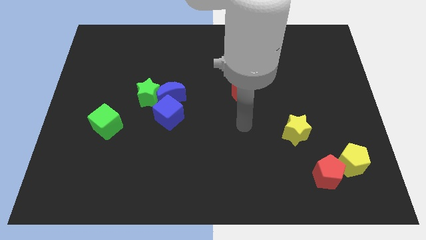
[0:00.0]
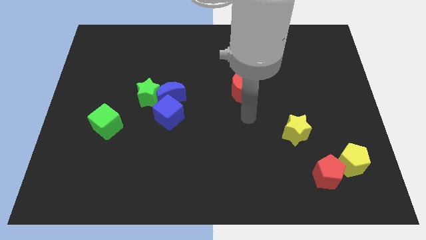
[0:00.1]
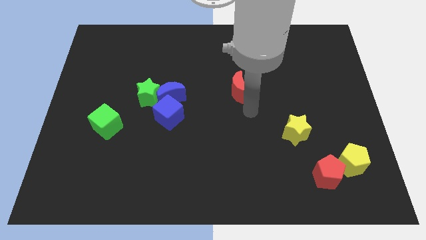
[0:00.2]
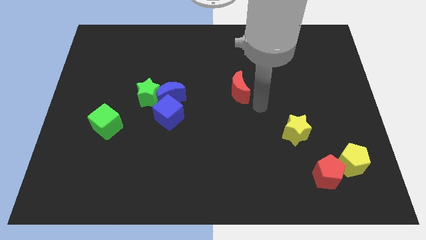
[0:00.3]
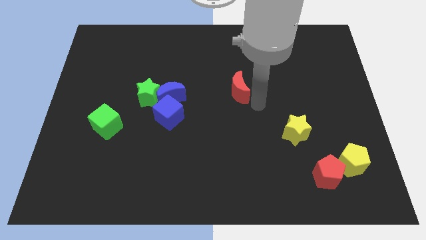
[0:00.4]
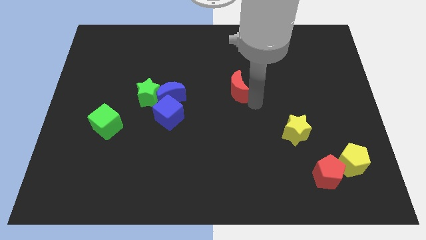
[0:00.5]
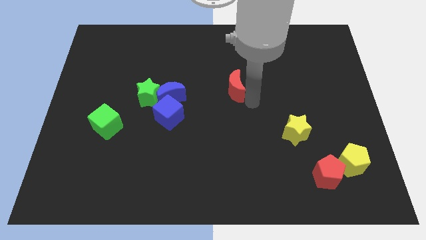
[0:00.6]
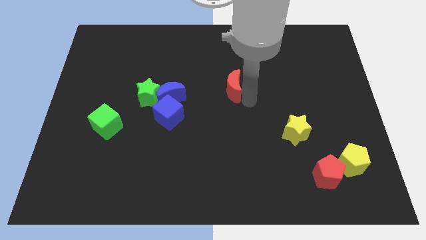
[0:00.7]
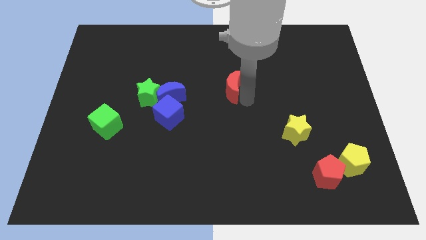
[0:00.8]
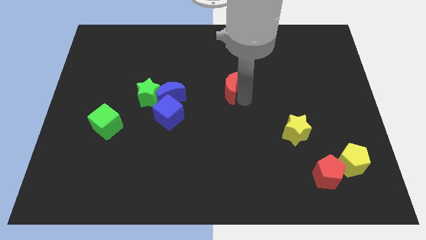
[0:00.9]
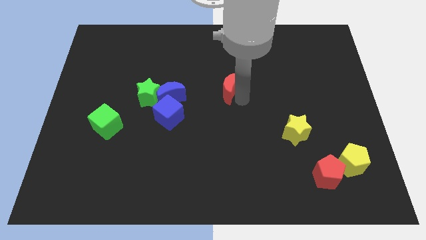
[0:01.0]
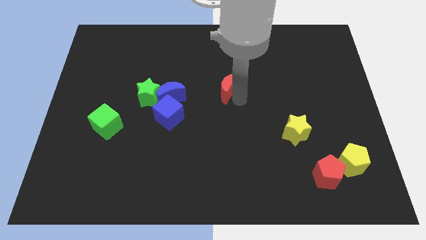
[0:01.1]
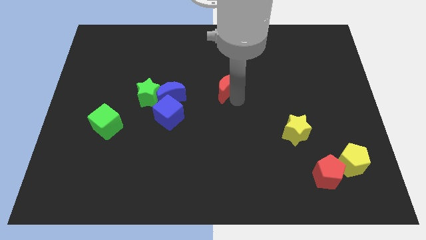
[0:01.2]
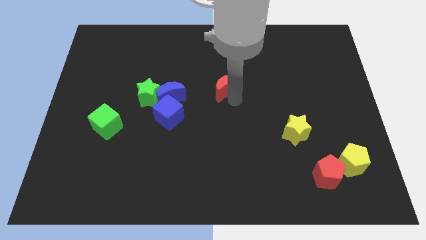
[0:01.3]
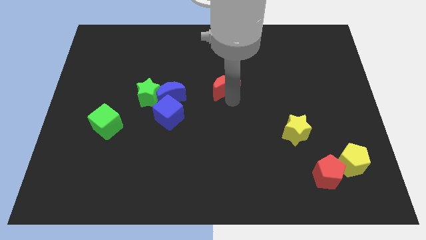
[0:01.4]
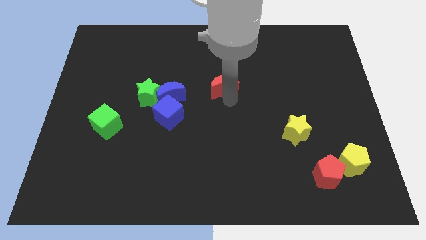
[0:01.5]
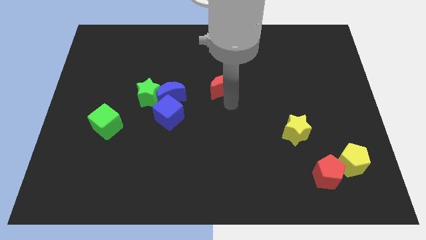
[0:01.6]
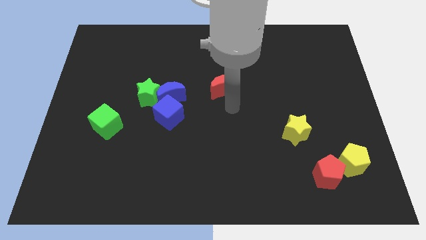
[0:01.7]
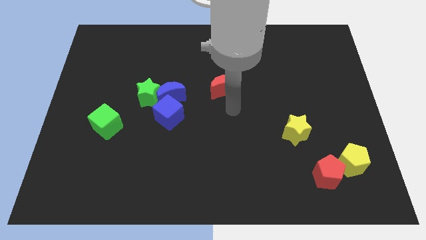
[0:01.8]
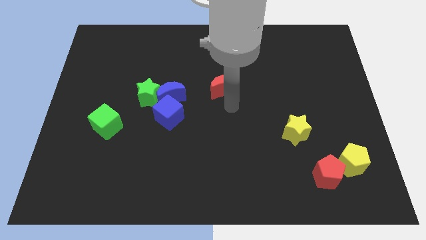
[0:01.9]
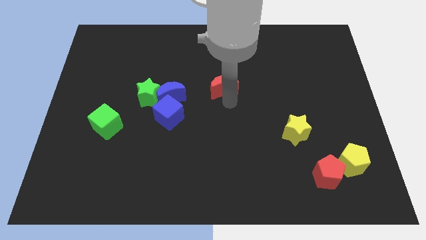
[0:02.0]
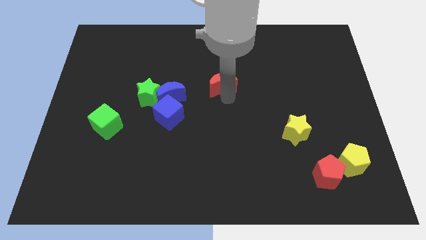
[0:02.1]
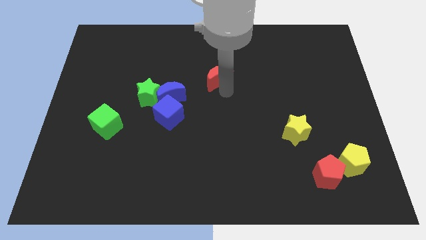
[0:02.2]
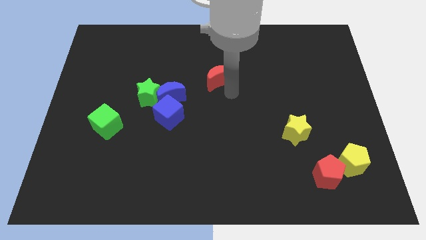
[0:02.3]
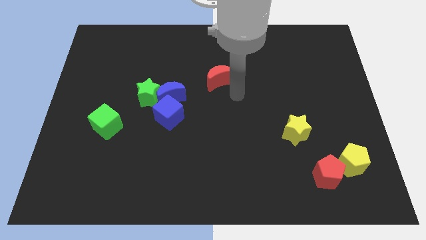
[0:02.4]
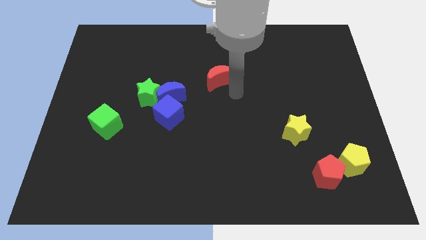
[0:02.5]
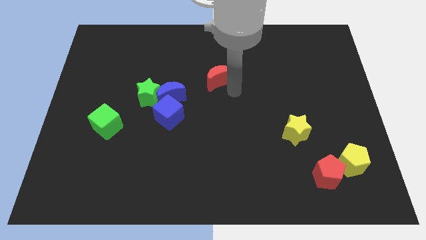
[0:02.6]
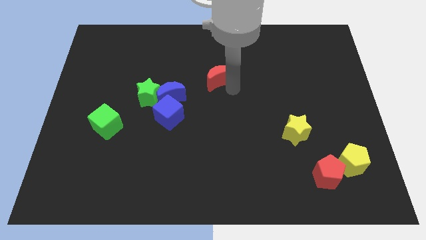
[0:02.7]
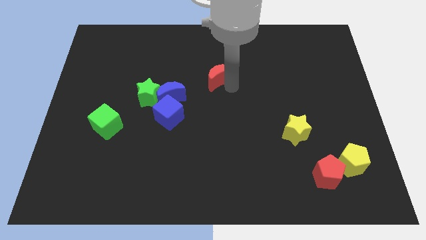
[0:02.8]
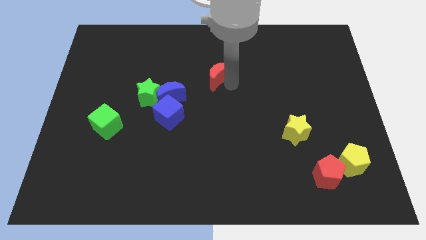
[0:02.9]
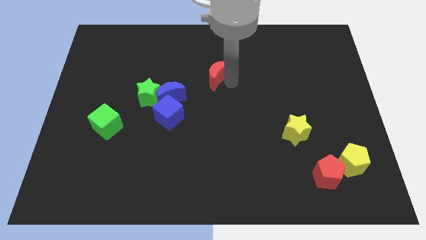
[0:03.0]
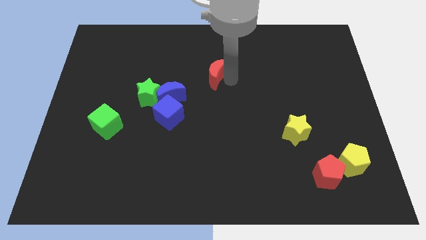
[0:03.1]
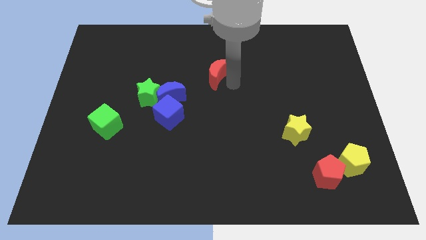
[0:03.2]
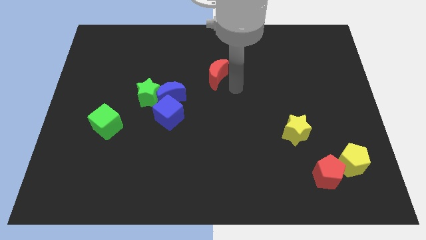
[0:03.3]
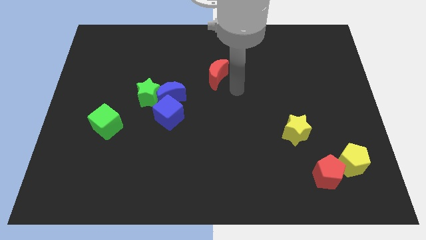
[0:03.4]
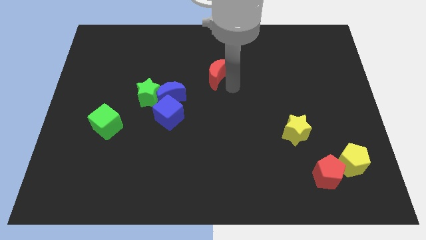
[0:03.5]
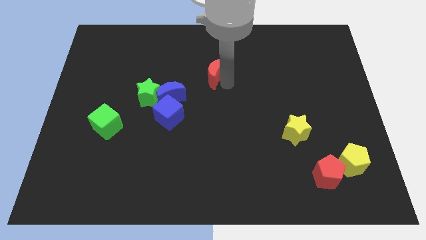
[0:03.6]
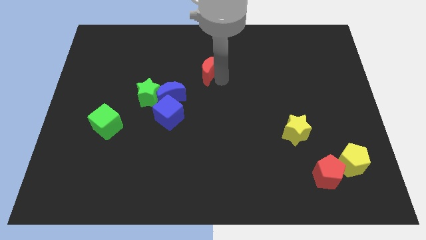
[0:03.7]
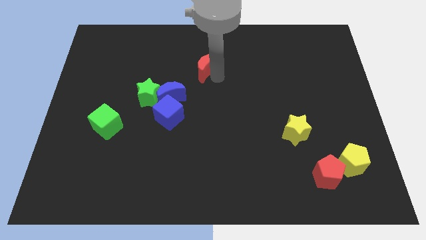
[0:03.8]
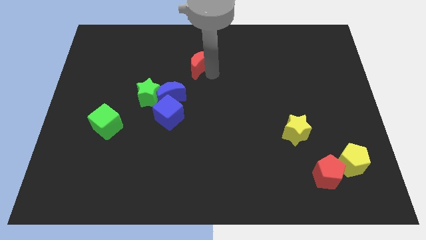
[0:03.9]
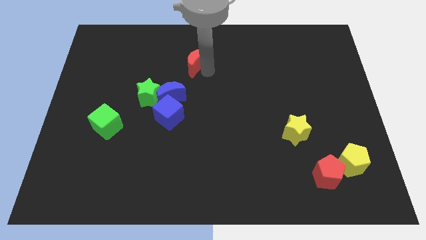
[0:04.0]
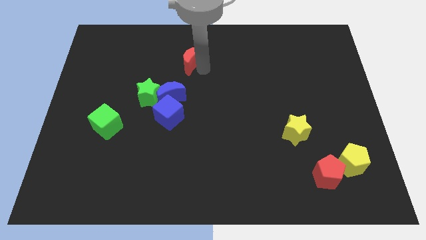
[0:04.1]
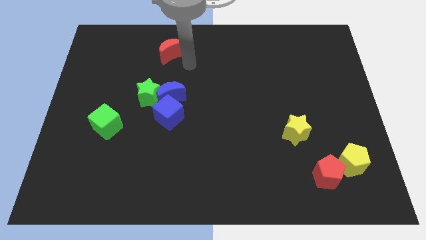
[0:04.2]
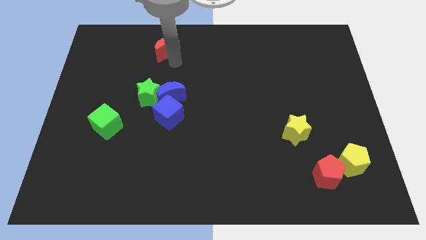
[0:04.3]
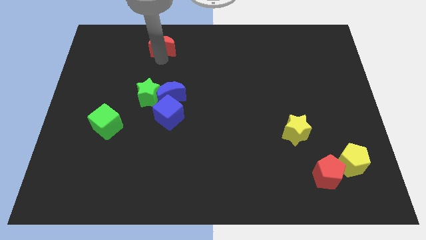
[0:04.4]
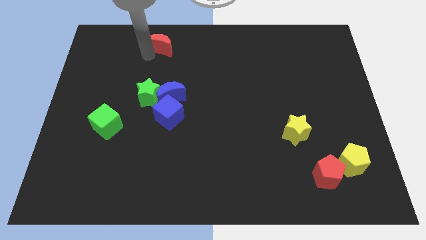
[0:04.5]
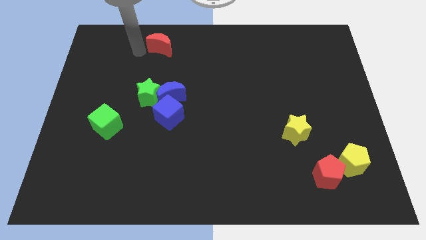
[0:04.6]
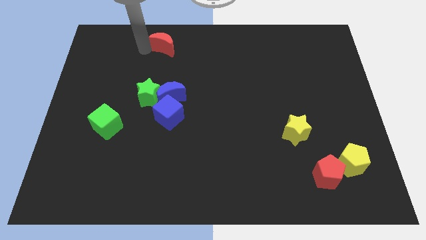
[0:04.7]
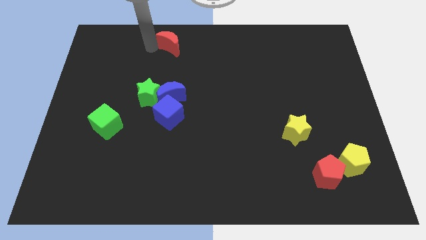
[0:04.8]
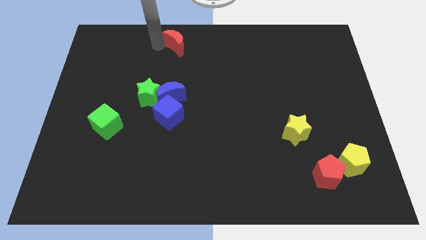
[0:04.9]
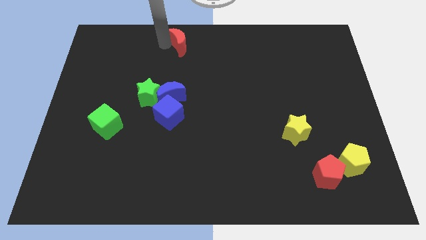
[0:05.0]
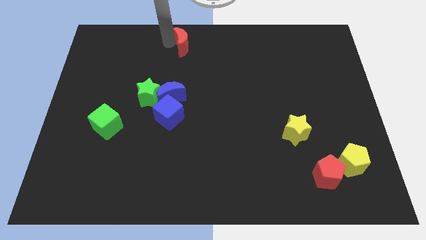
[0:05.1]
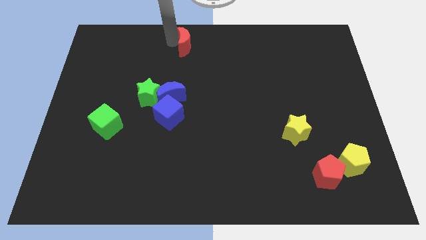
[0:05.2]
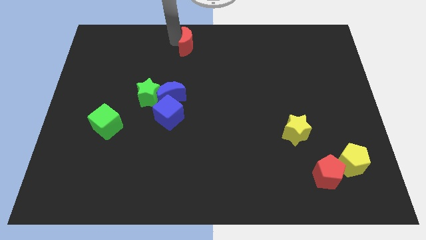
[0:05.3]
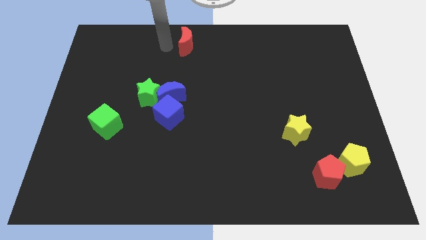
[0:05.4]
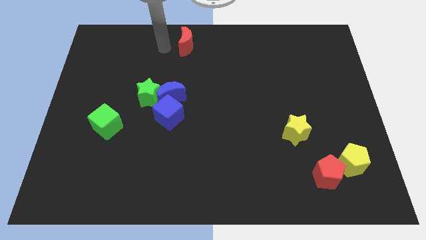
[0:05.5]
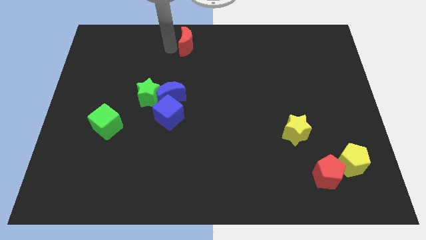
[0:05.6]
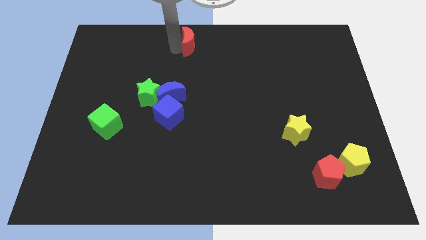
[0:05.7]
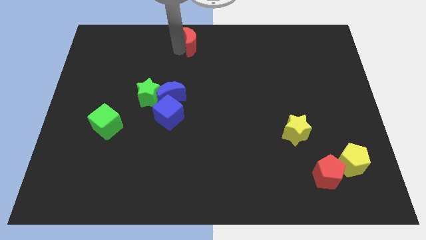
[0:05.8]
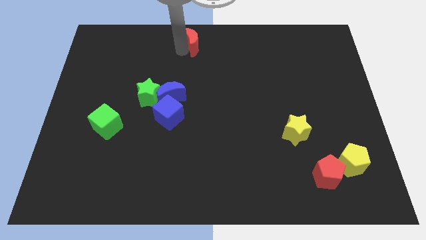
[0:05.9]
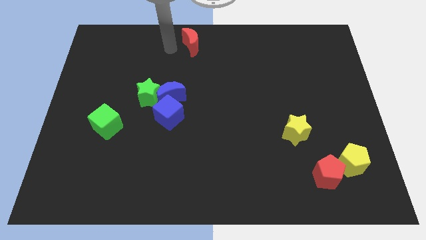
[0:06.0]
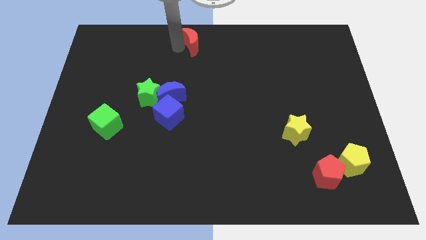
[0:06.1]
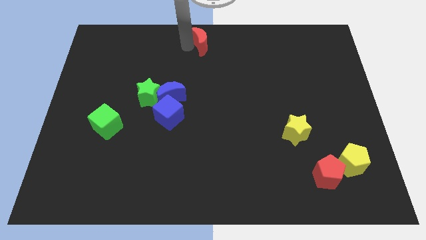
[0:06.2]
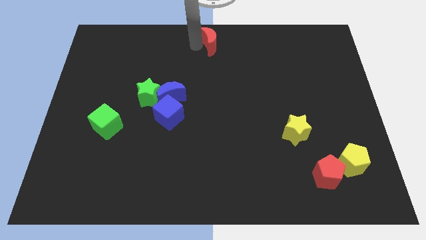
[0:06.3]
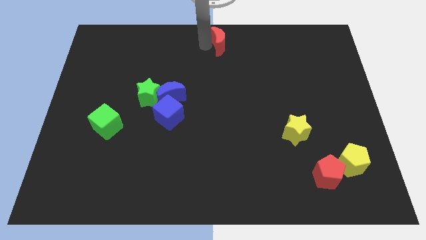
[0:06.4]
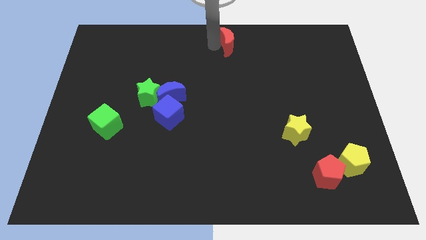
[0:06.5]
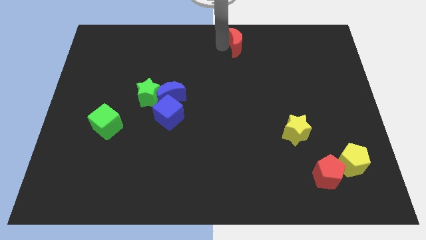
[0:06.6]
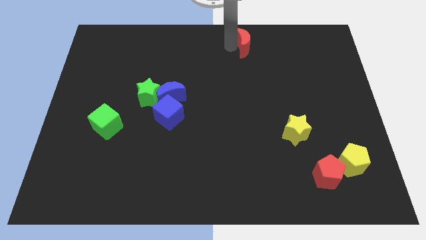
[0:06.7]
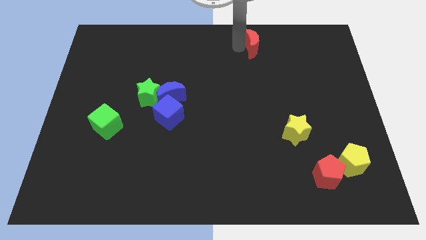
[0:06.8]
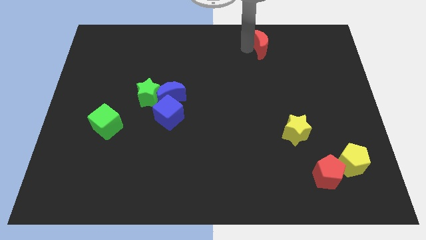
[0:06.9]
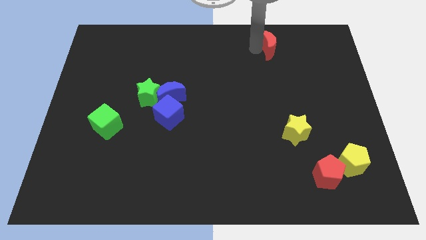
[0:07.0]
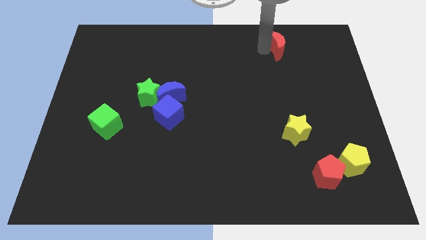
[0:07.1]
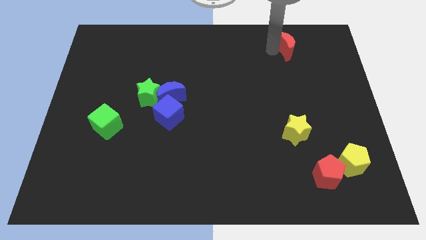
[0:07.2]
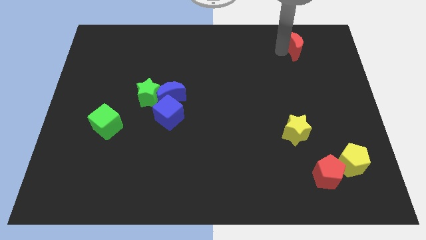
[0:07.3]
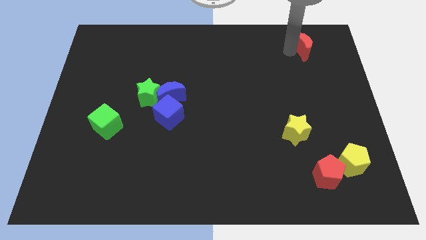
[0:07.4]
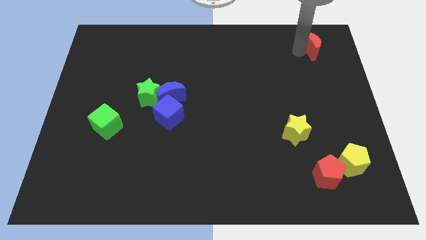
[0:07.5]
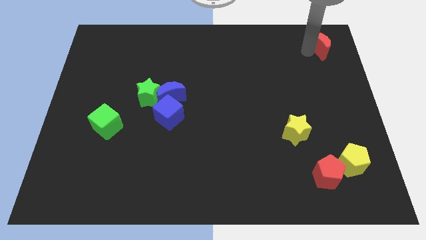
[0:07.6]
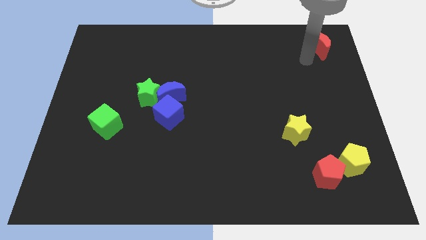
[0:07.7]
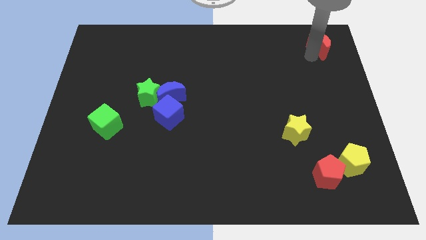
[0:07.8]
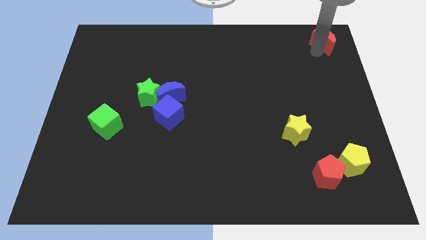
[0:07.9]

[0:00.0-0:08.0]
move the red moon to the upper right corner
